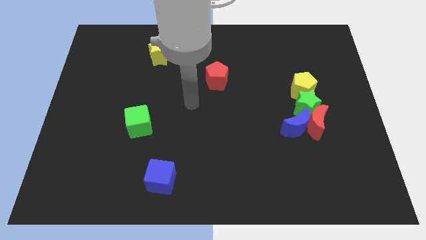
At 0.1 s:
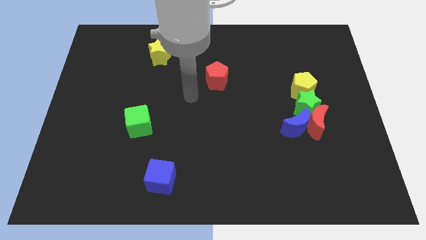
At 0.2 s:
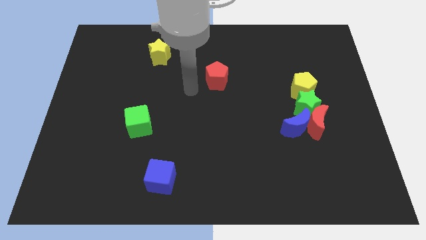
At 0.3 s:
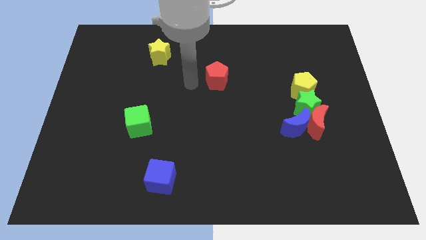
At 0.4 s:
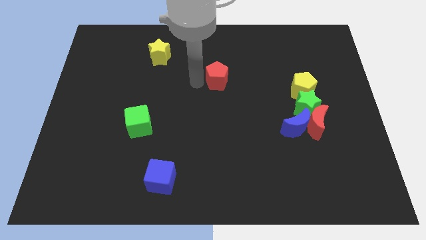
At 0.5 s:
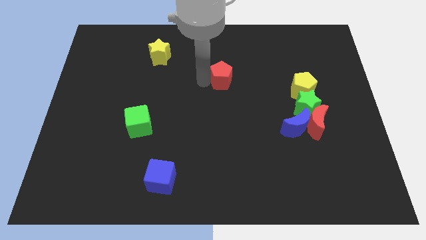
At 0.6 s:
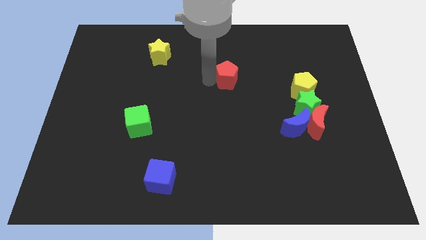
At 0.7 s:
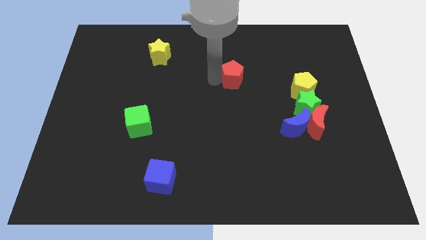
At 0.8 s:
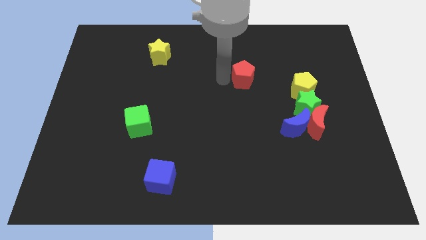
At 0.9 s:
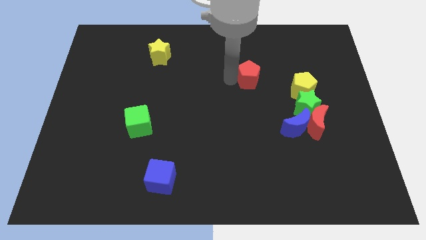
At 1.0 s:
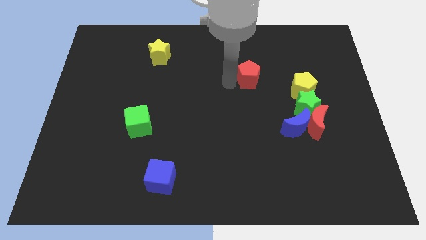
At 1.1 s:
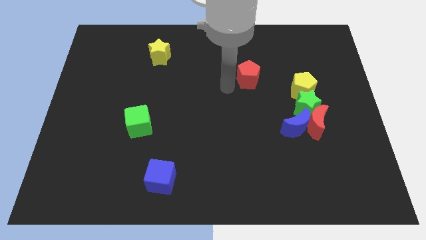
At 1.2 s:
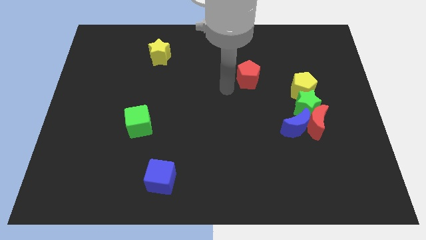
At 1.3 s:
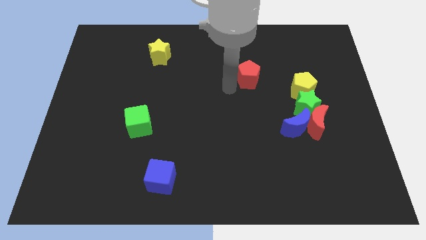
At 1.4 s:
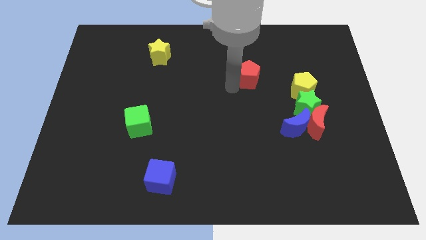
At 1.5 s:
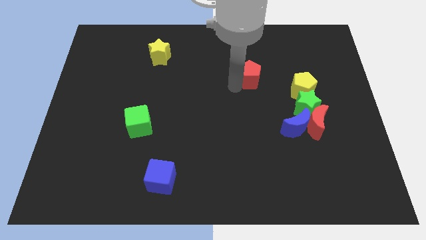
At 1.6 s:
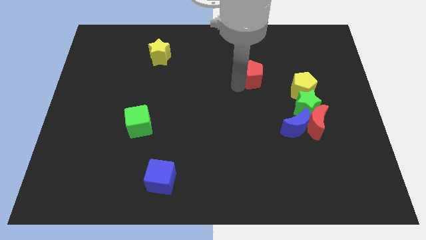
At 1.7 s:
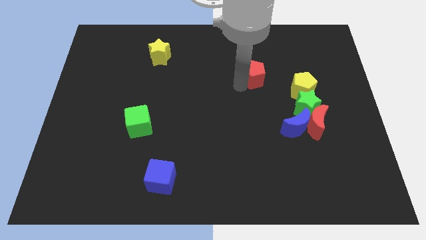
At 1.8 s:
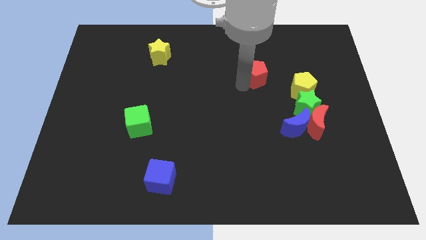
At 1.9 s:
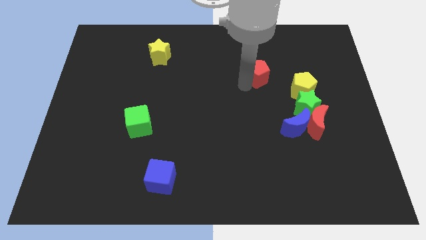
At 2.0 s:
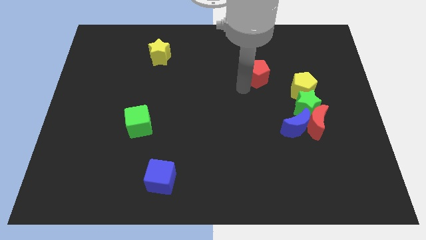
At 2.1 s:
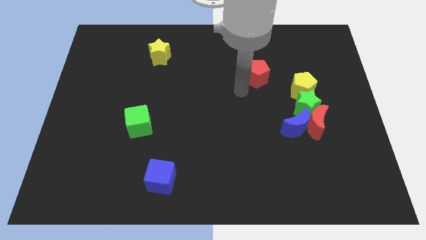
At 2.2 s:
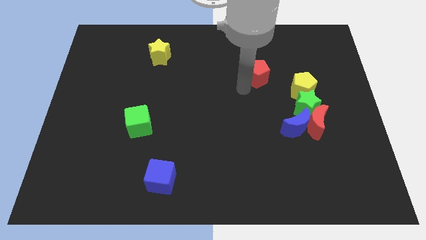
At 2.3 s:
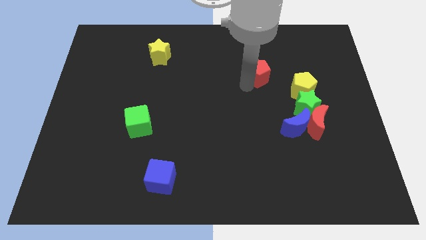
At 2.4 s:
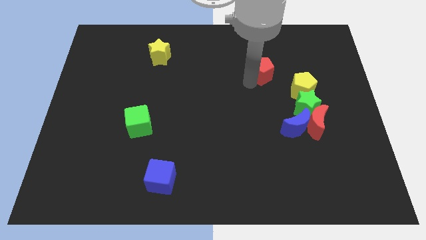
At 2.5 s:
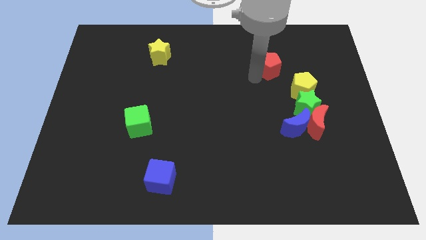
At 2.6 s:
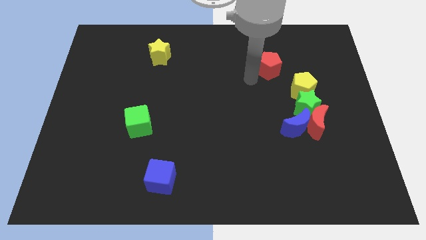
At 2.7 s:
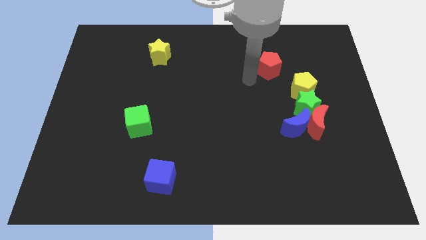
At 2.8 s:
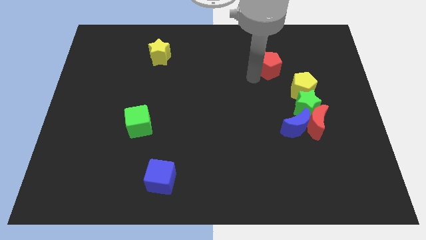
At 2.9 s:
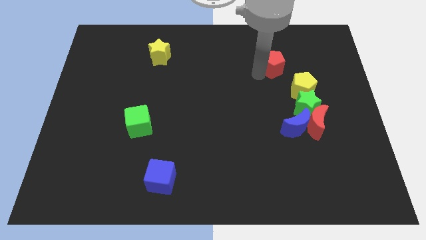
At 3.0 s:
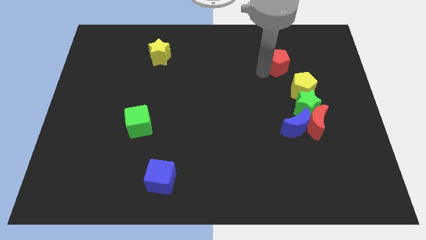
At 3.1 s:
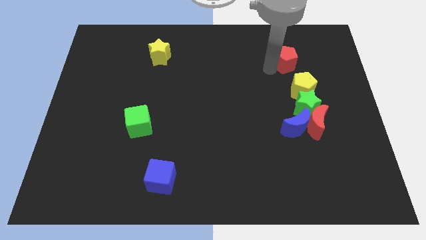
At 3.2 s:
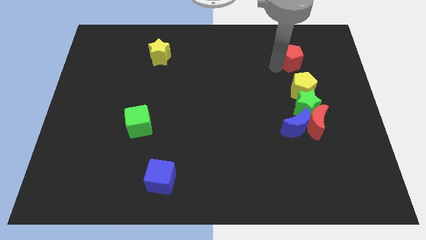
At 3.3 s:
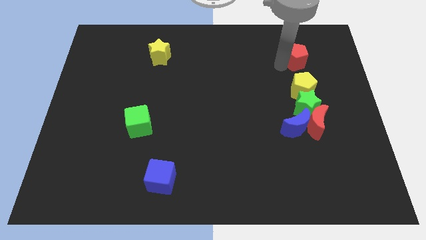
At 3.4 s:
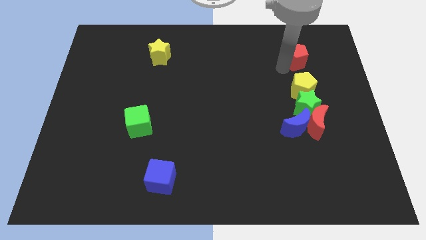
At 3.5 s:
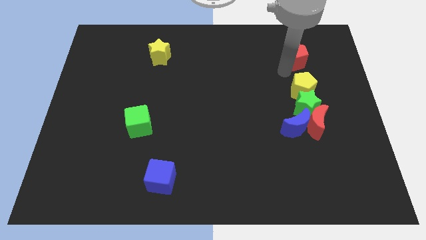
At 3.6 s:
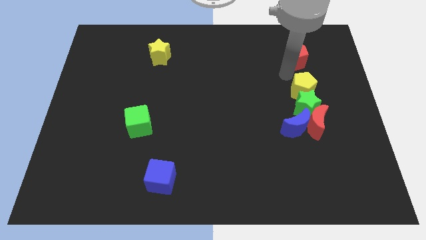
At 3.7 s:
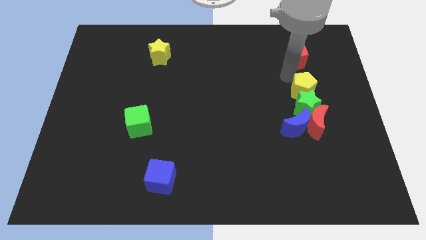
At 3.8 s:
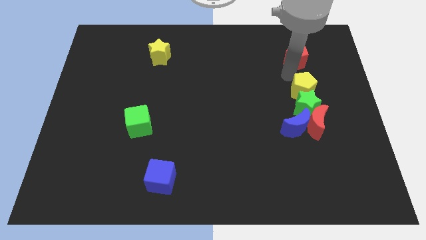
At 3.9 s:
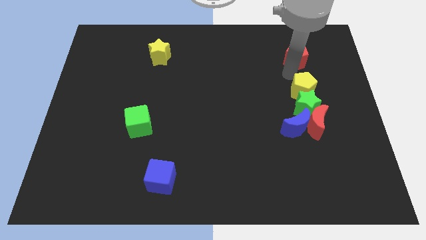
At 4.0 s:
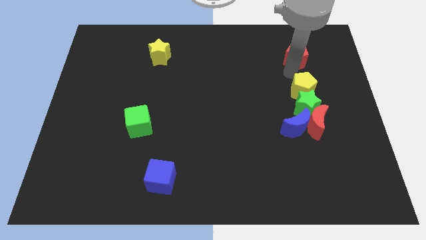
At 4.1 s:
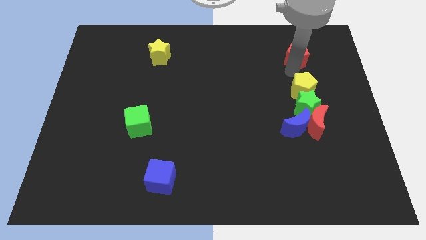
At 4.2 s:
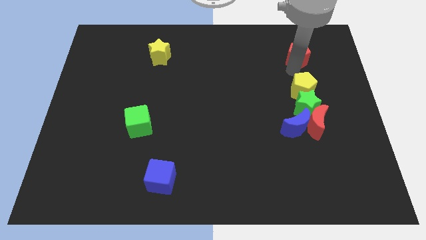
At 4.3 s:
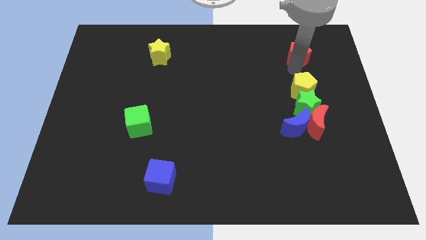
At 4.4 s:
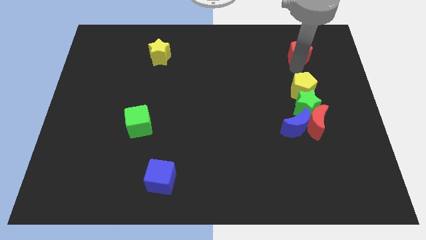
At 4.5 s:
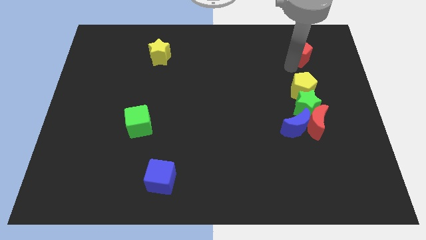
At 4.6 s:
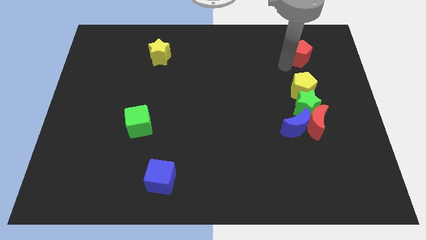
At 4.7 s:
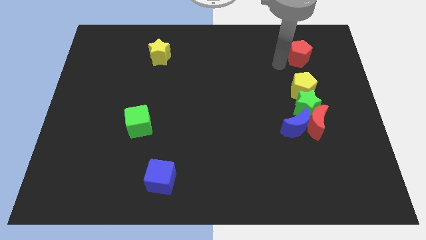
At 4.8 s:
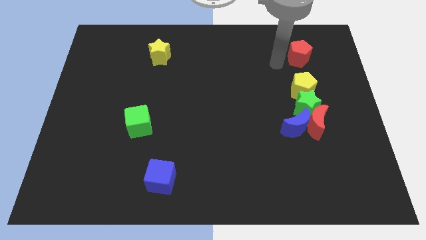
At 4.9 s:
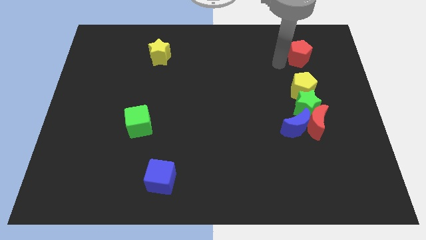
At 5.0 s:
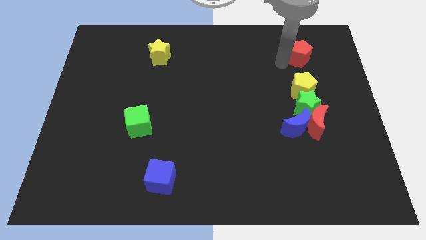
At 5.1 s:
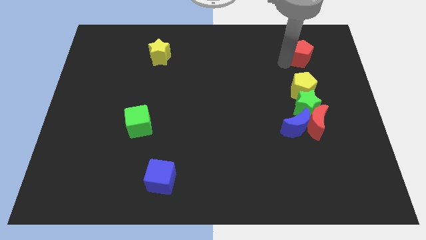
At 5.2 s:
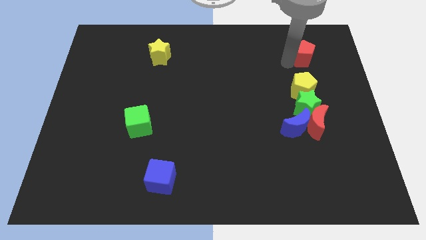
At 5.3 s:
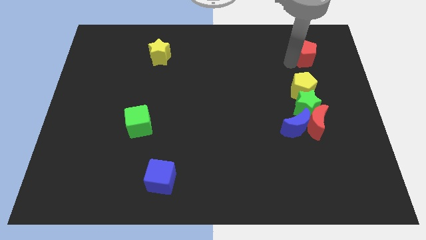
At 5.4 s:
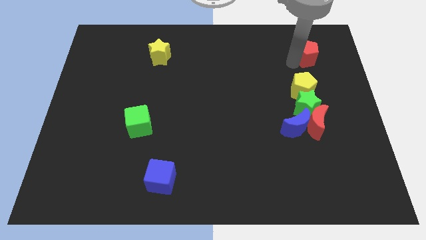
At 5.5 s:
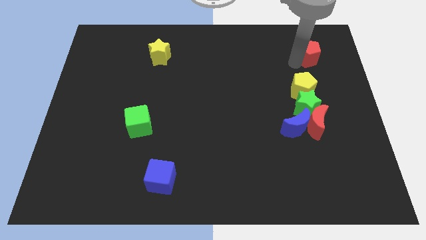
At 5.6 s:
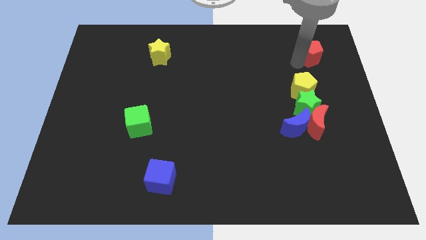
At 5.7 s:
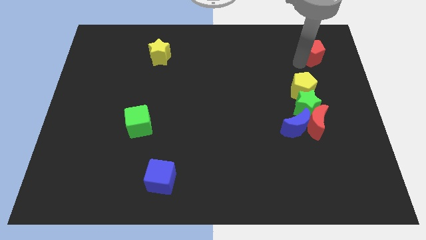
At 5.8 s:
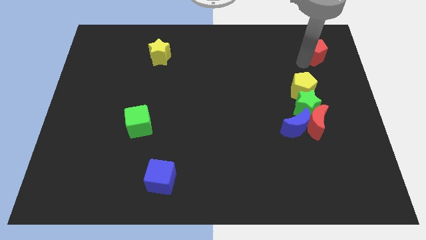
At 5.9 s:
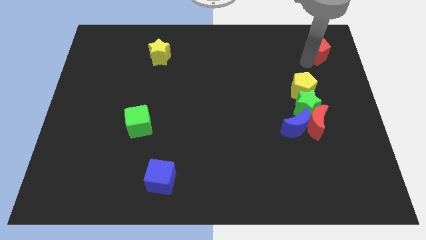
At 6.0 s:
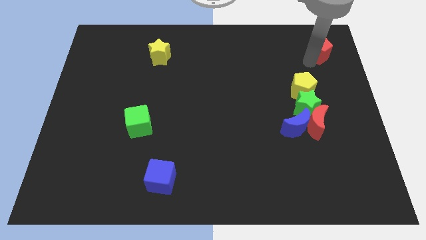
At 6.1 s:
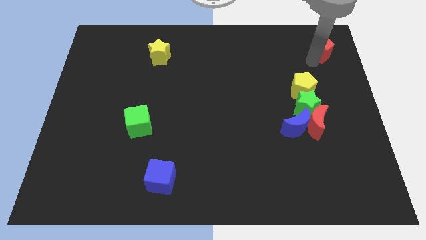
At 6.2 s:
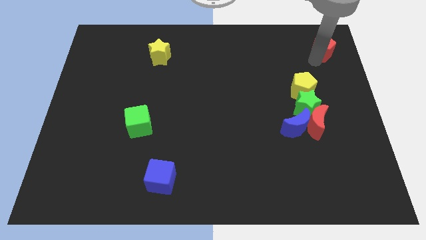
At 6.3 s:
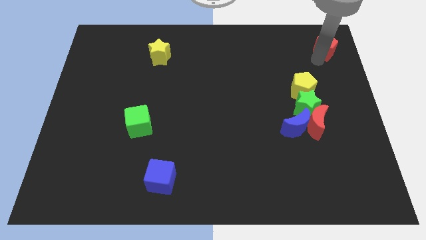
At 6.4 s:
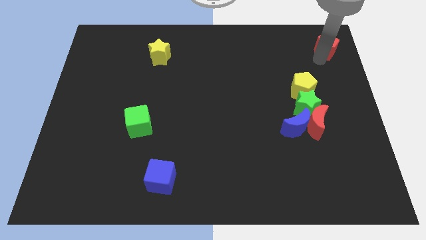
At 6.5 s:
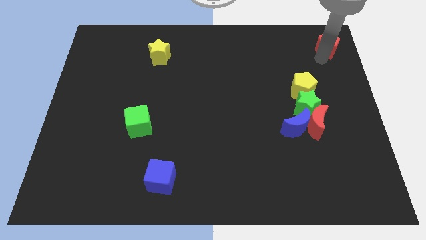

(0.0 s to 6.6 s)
move the red pentagon to the top right of the board
